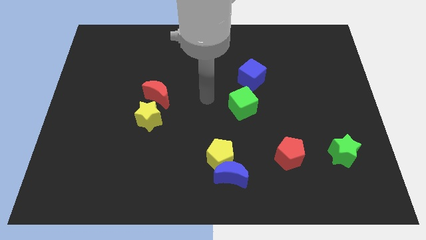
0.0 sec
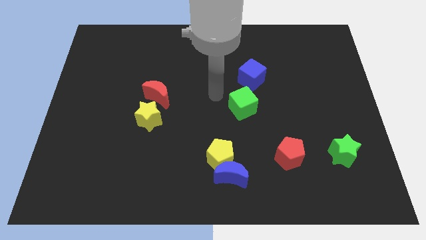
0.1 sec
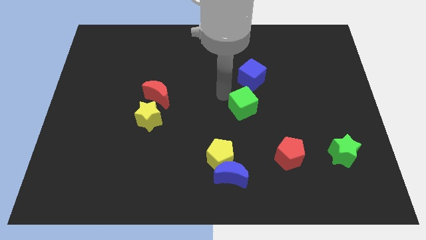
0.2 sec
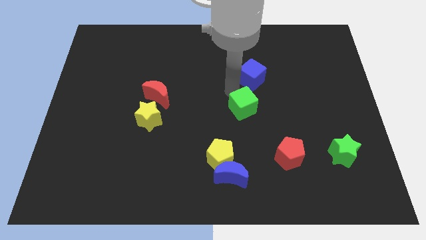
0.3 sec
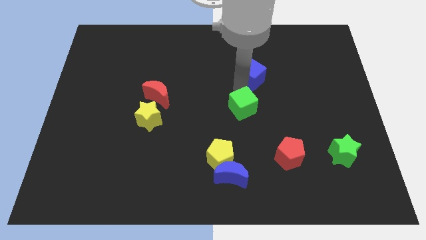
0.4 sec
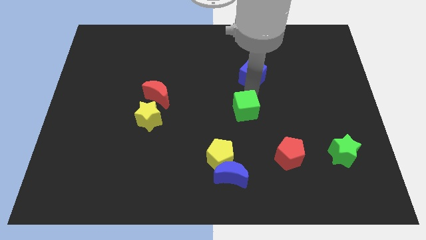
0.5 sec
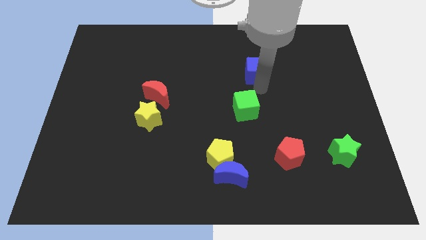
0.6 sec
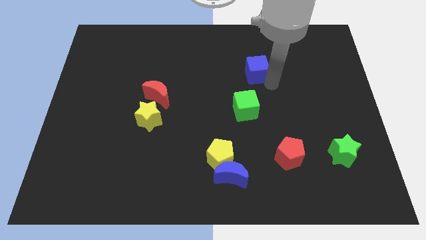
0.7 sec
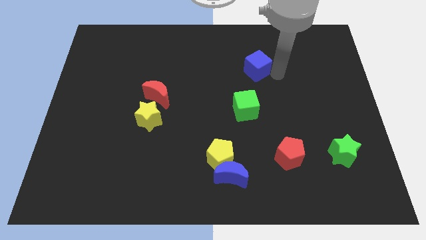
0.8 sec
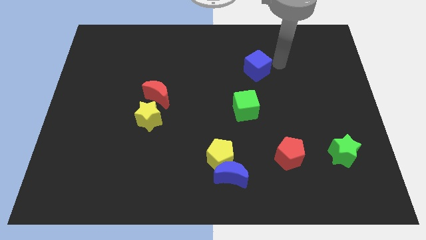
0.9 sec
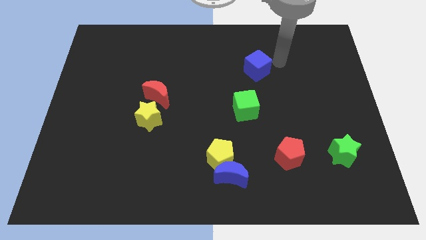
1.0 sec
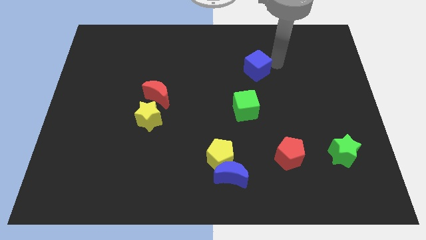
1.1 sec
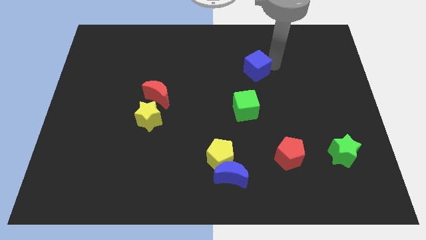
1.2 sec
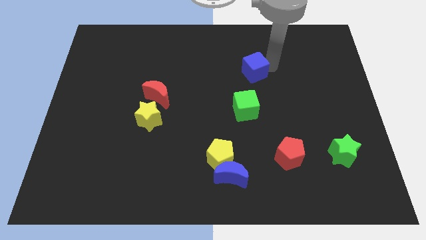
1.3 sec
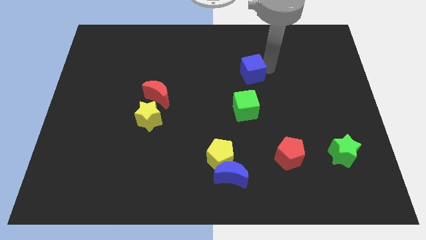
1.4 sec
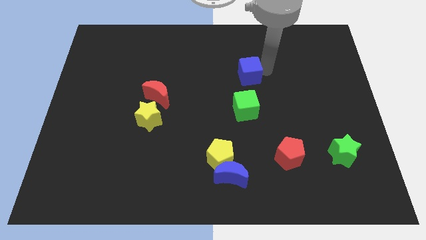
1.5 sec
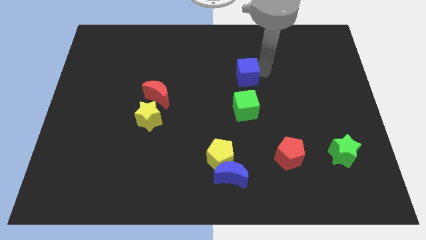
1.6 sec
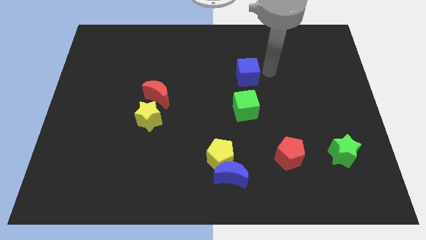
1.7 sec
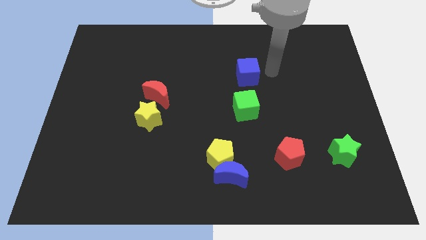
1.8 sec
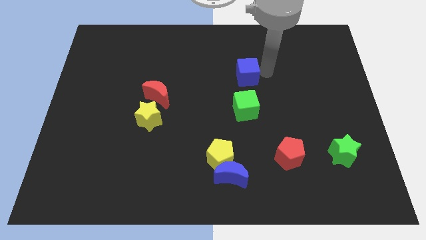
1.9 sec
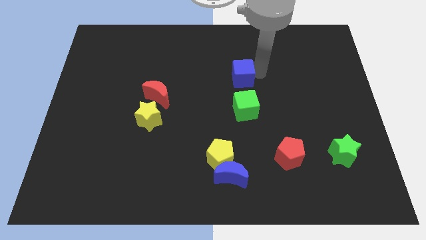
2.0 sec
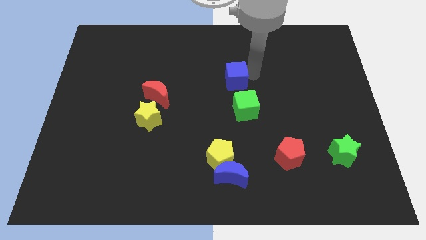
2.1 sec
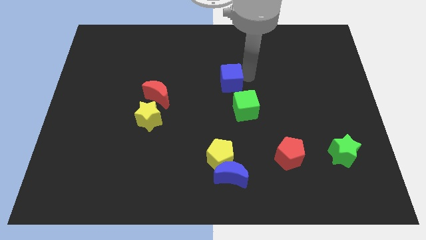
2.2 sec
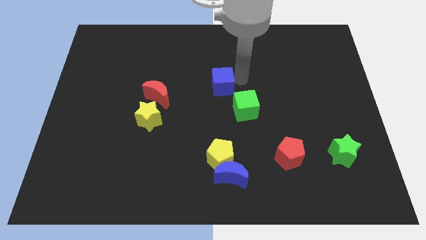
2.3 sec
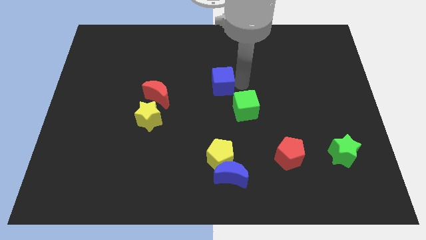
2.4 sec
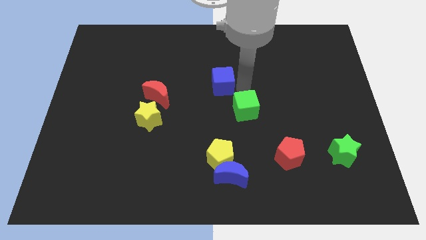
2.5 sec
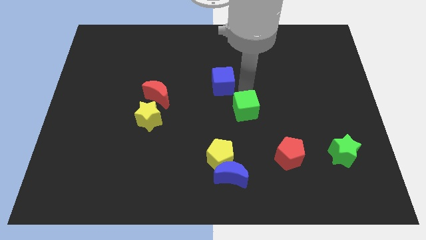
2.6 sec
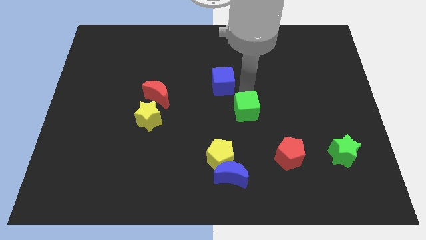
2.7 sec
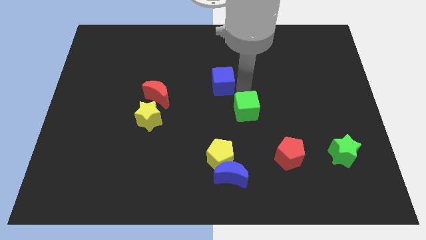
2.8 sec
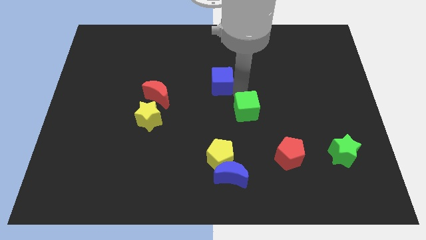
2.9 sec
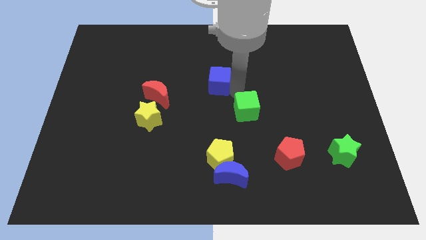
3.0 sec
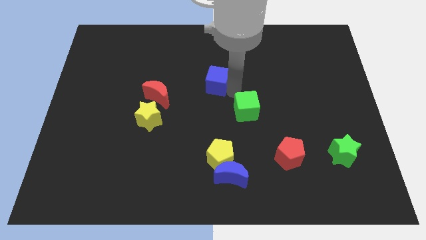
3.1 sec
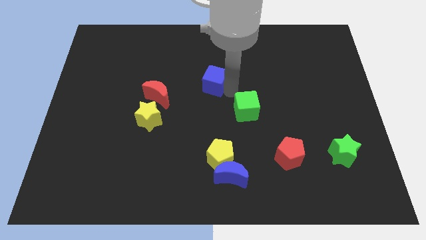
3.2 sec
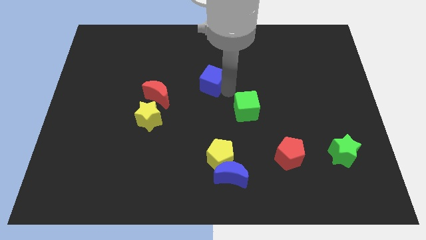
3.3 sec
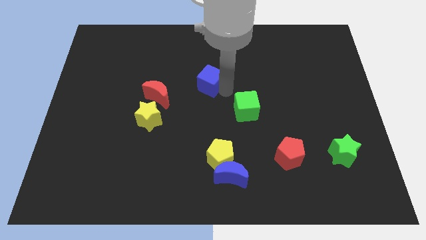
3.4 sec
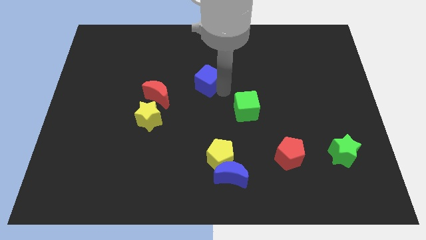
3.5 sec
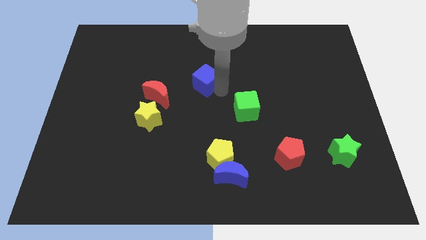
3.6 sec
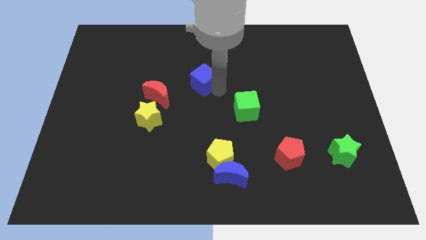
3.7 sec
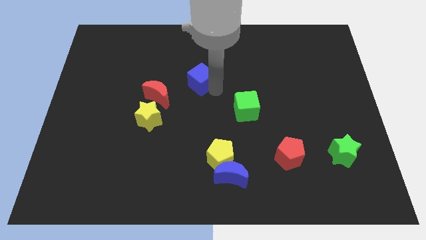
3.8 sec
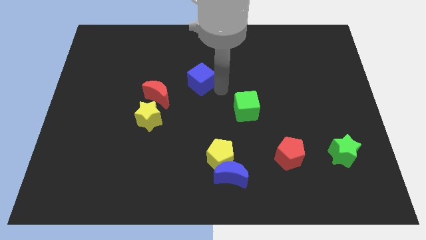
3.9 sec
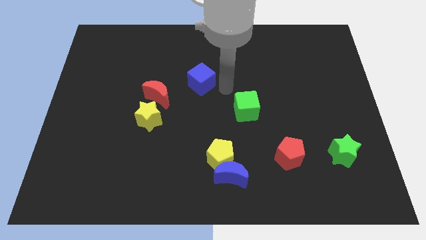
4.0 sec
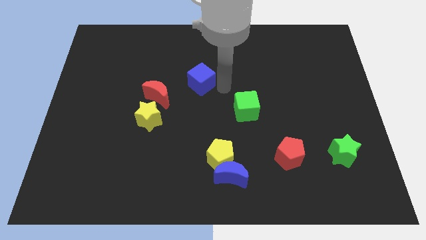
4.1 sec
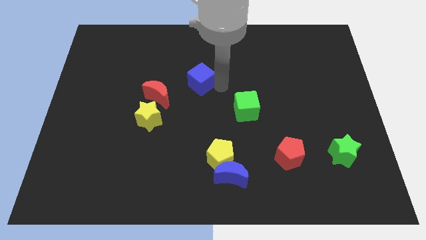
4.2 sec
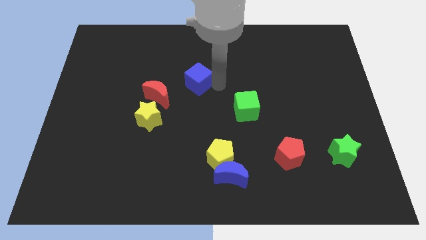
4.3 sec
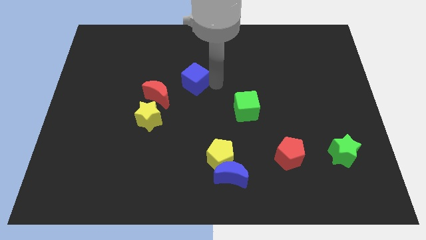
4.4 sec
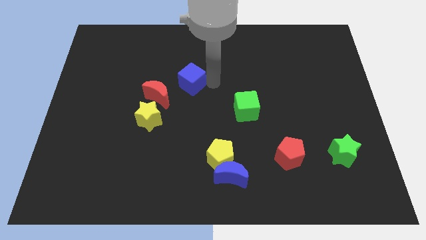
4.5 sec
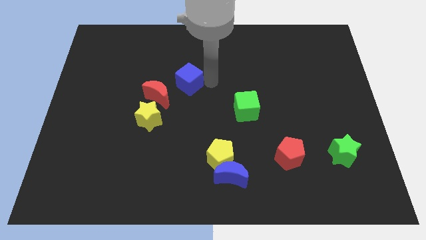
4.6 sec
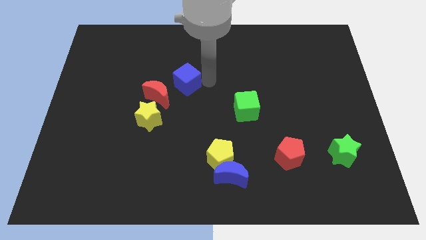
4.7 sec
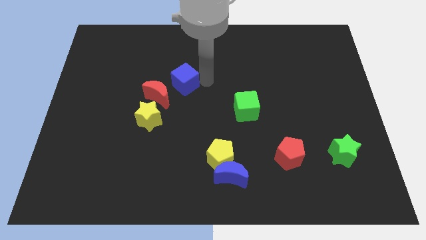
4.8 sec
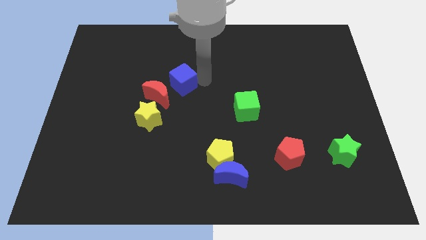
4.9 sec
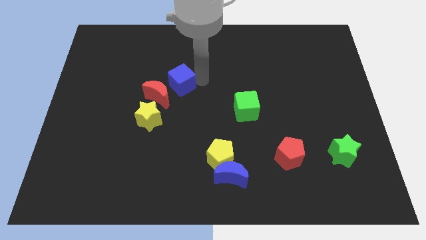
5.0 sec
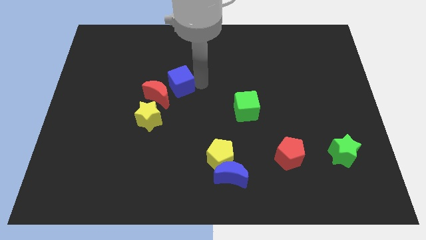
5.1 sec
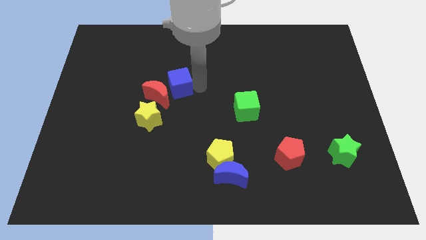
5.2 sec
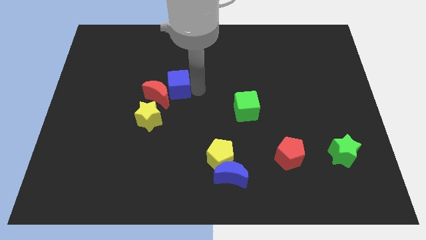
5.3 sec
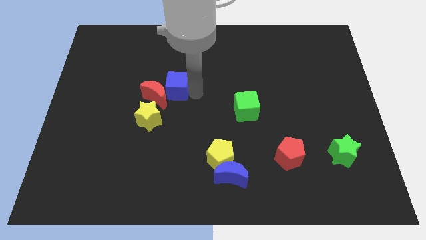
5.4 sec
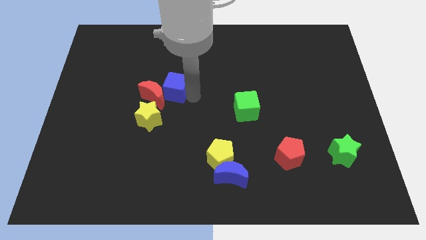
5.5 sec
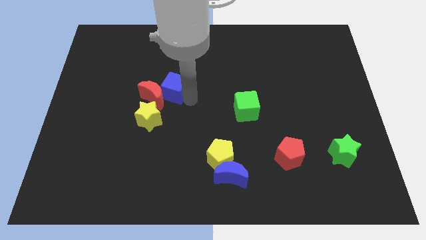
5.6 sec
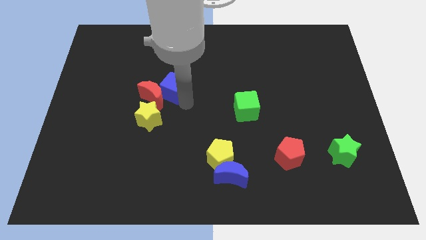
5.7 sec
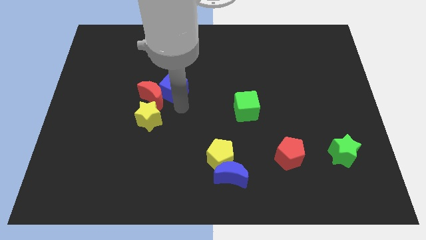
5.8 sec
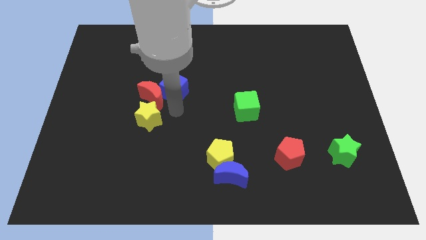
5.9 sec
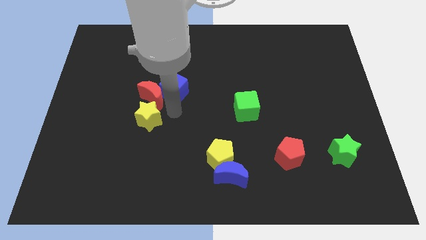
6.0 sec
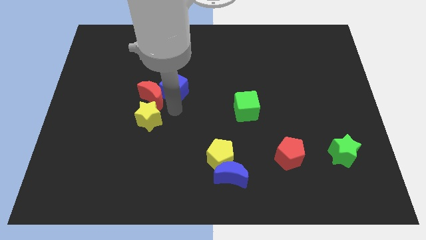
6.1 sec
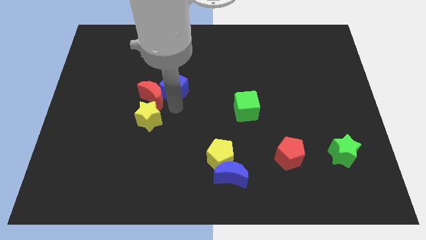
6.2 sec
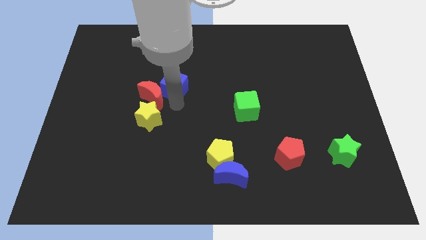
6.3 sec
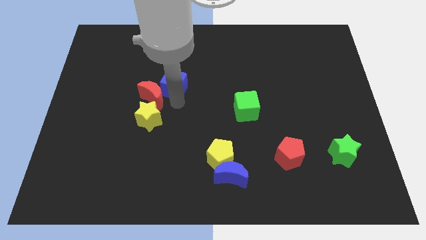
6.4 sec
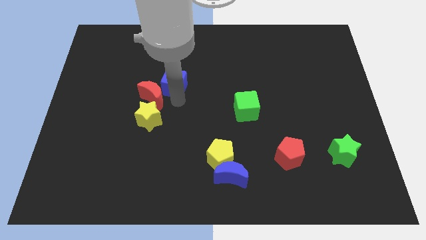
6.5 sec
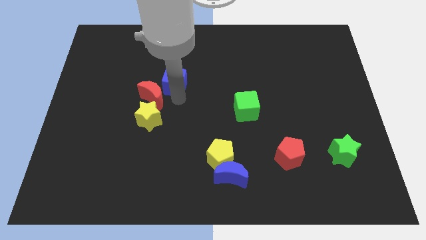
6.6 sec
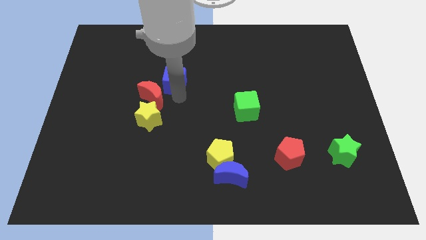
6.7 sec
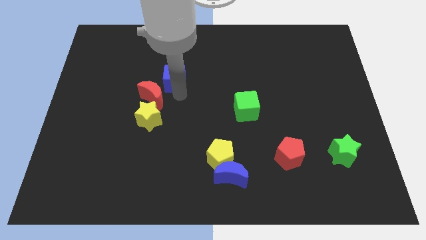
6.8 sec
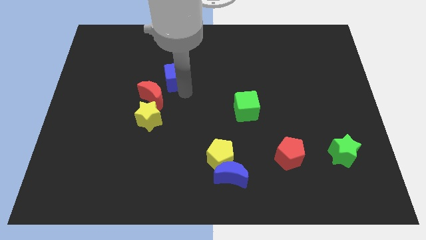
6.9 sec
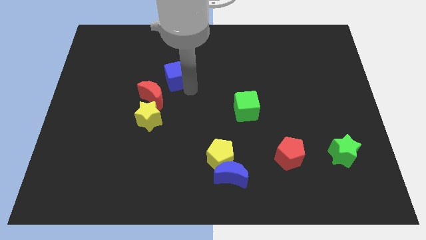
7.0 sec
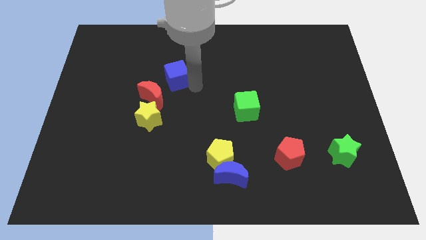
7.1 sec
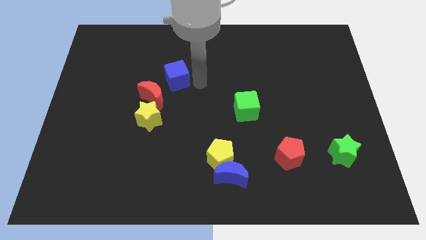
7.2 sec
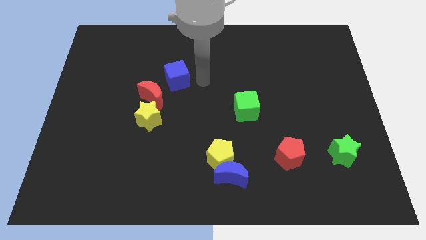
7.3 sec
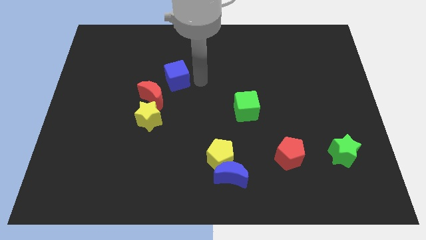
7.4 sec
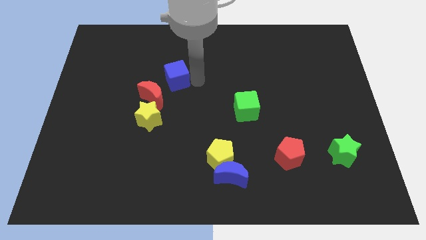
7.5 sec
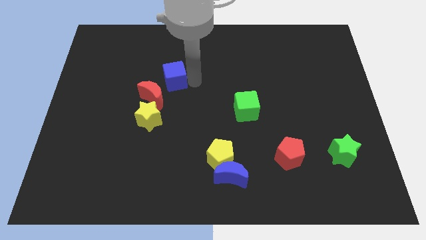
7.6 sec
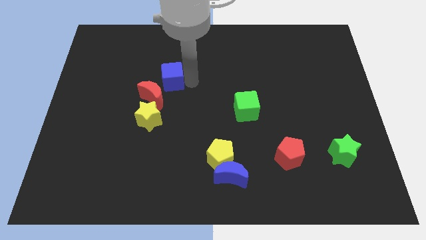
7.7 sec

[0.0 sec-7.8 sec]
move the blue cube left

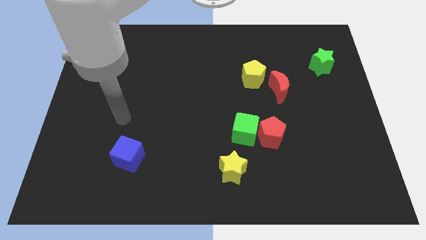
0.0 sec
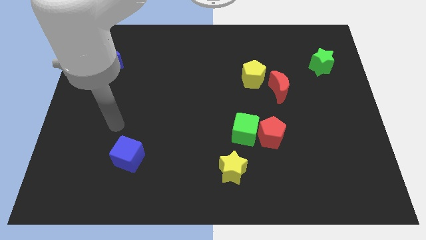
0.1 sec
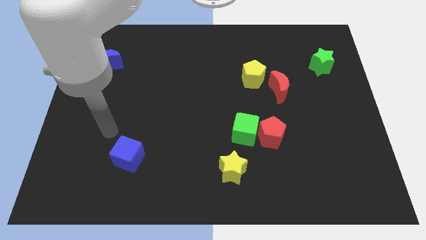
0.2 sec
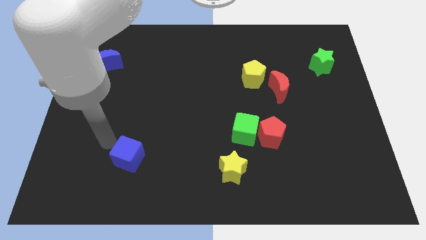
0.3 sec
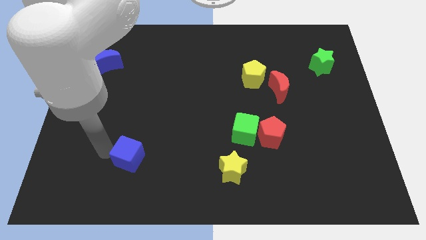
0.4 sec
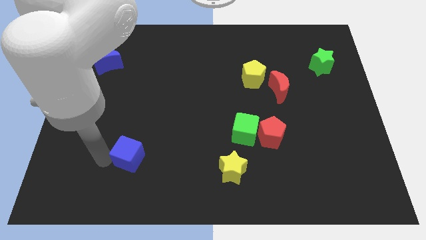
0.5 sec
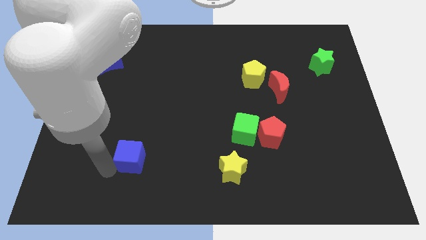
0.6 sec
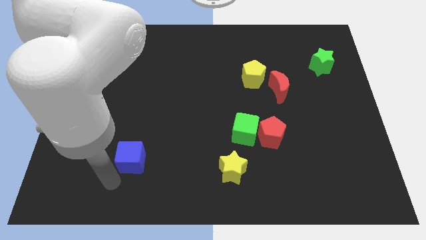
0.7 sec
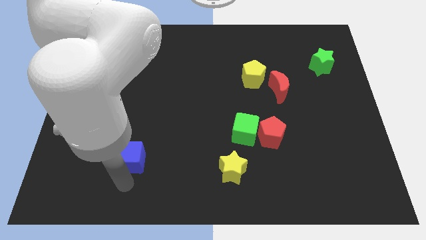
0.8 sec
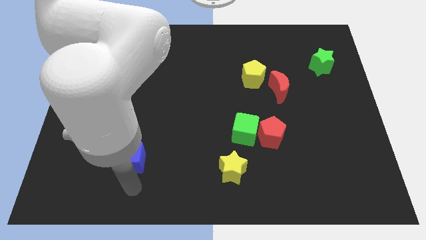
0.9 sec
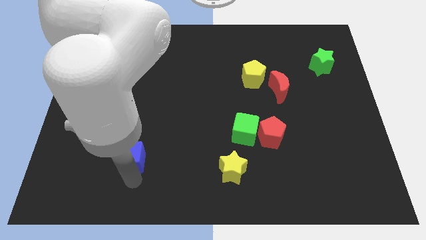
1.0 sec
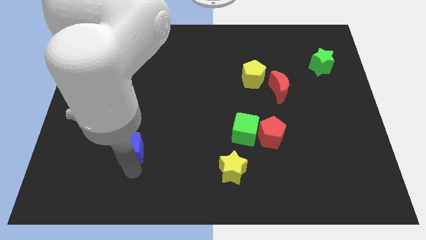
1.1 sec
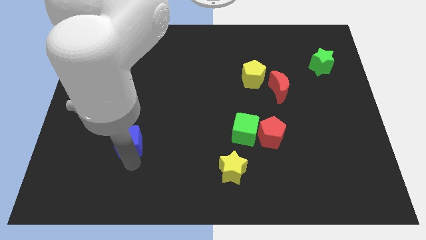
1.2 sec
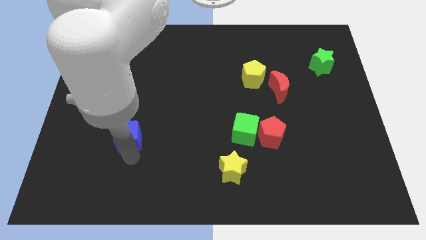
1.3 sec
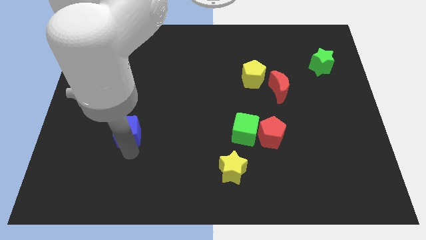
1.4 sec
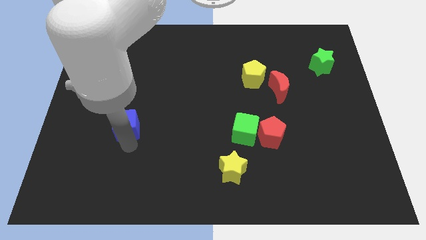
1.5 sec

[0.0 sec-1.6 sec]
slightly push the blue cube up
